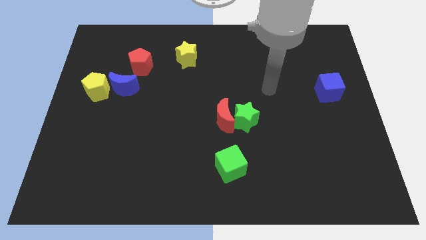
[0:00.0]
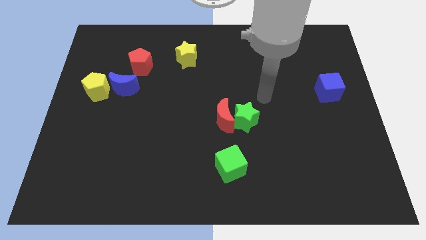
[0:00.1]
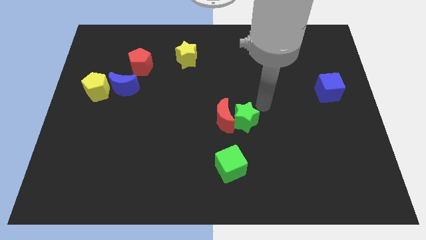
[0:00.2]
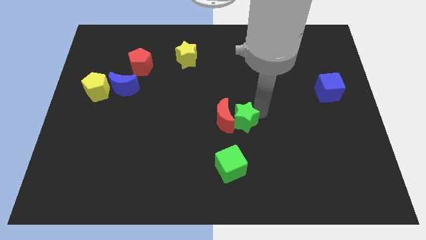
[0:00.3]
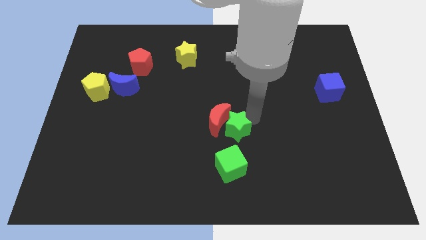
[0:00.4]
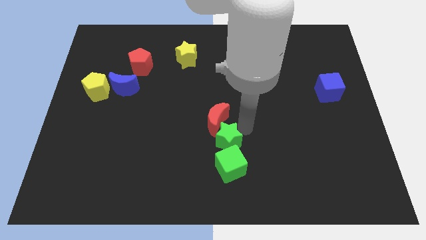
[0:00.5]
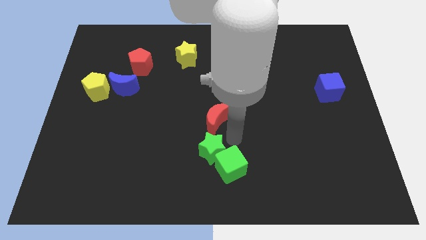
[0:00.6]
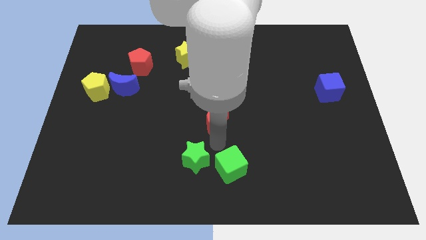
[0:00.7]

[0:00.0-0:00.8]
separate the red moon from the green star

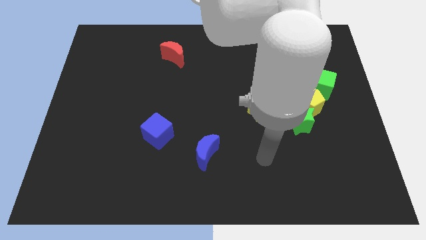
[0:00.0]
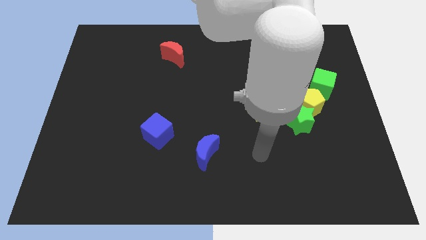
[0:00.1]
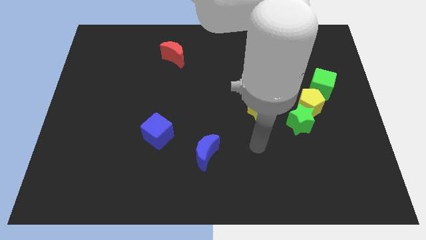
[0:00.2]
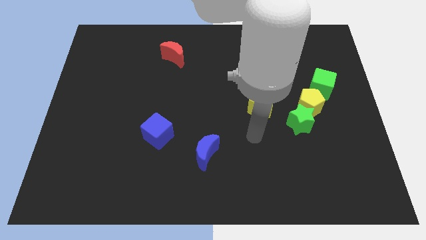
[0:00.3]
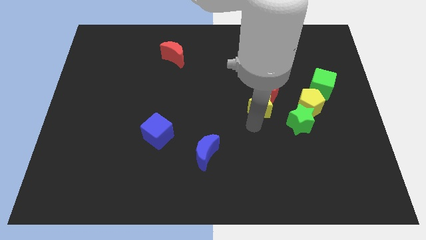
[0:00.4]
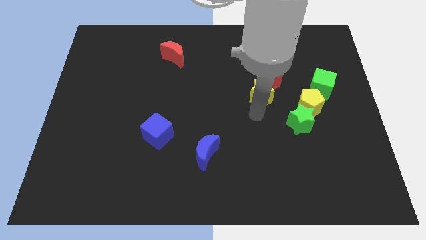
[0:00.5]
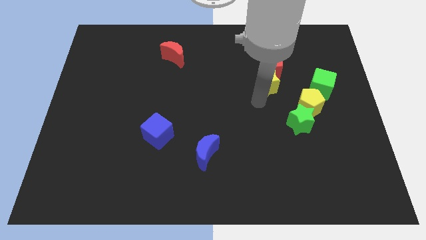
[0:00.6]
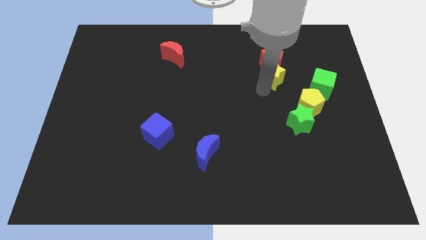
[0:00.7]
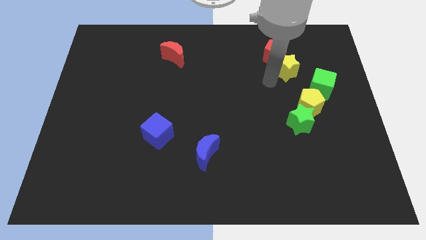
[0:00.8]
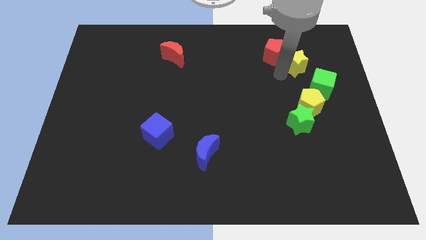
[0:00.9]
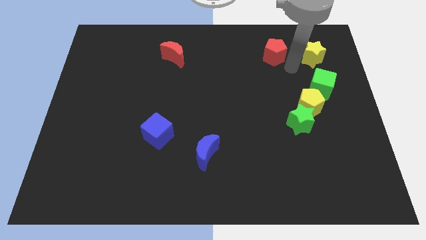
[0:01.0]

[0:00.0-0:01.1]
move the red pentagon away from the yellow star

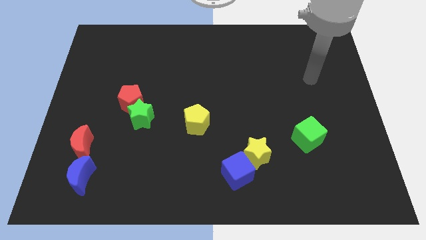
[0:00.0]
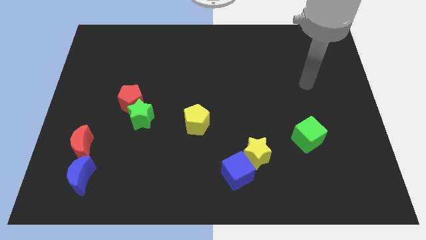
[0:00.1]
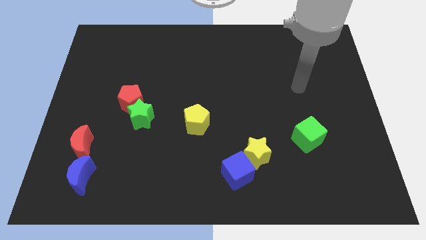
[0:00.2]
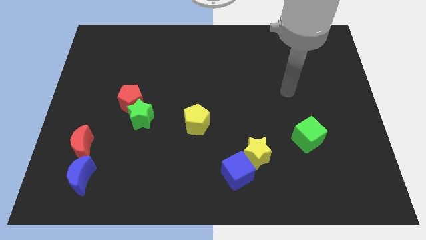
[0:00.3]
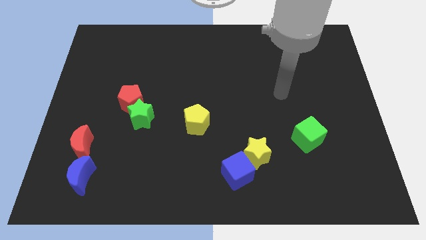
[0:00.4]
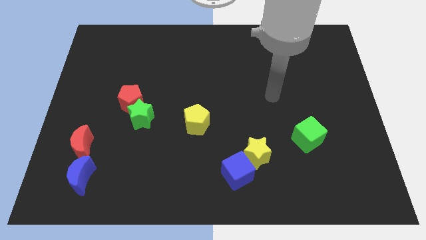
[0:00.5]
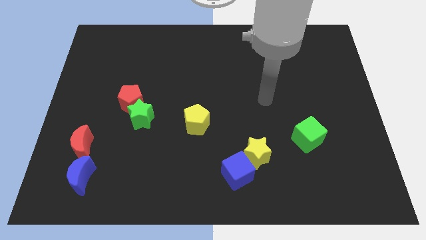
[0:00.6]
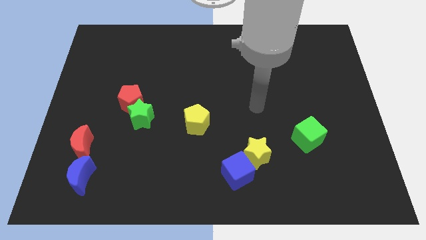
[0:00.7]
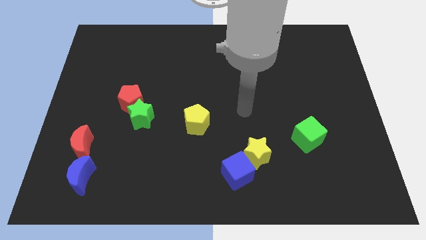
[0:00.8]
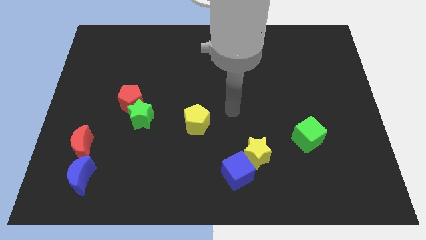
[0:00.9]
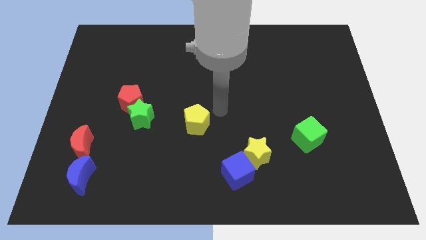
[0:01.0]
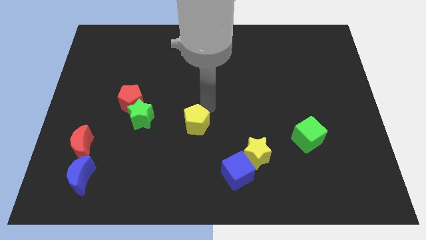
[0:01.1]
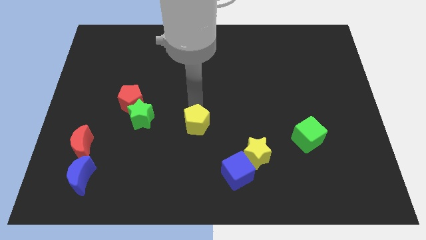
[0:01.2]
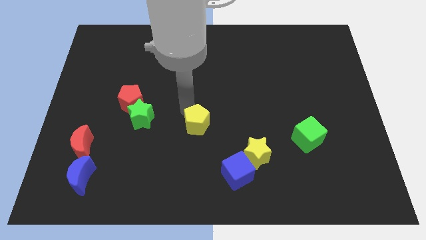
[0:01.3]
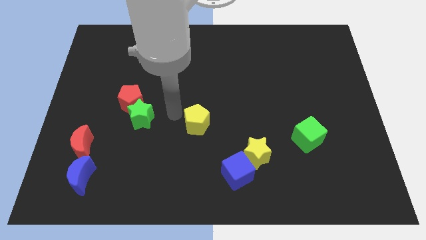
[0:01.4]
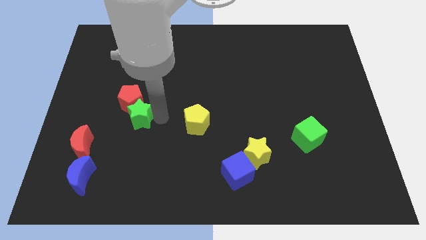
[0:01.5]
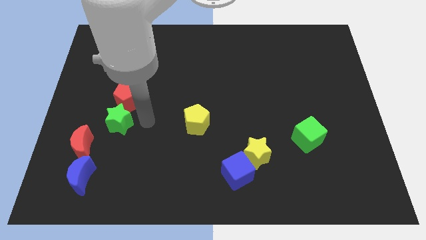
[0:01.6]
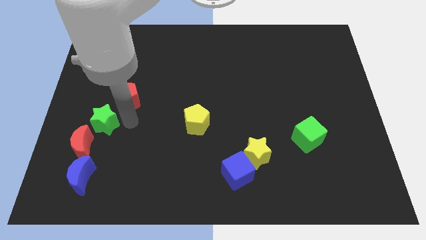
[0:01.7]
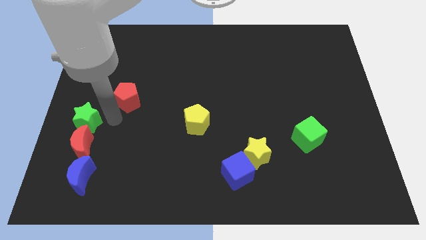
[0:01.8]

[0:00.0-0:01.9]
pull the red pentagon apart from the green star

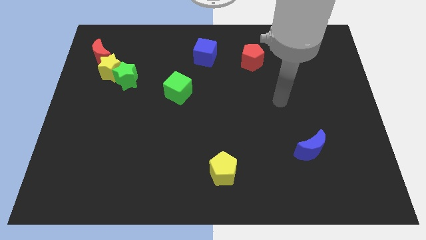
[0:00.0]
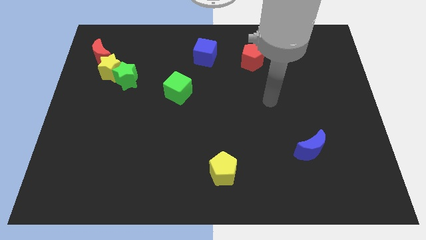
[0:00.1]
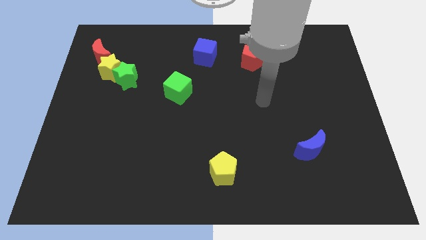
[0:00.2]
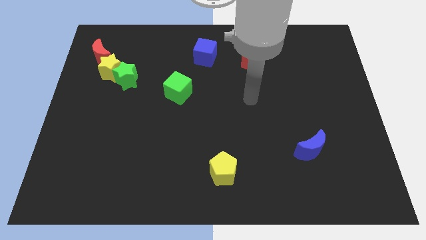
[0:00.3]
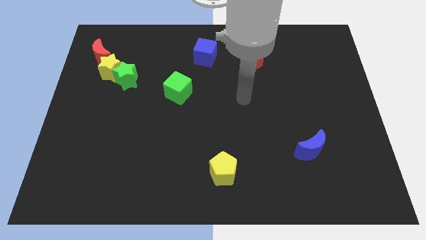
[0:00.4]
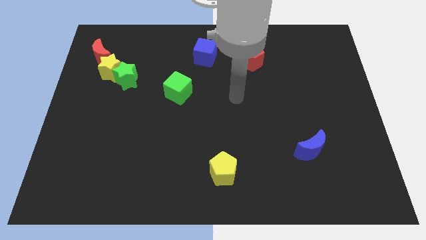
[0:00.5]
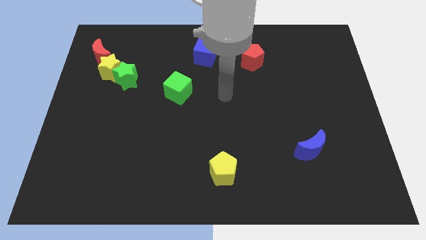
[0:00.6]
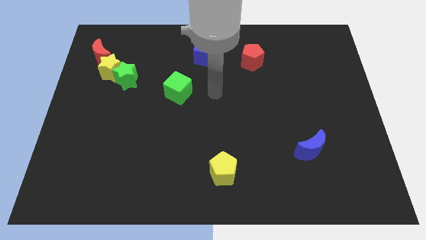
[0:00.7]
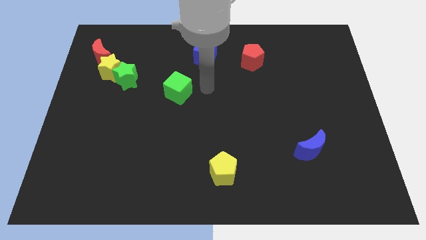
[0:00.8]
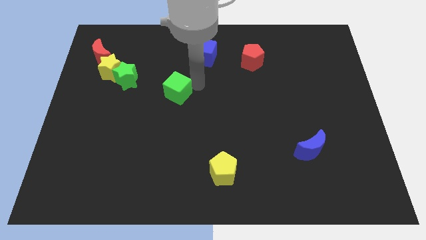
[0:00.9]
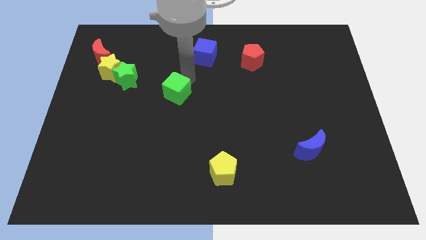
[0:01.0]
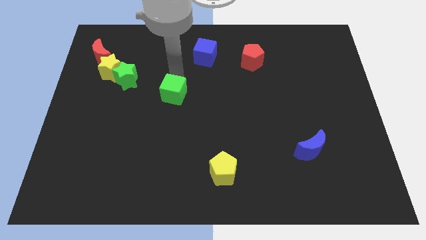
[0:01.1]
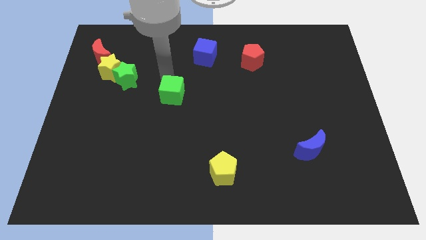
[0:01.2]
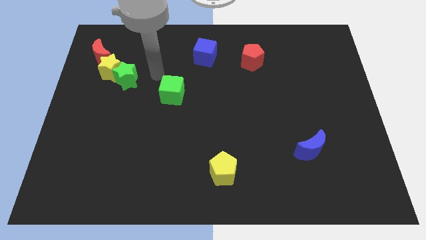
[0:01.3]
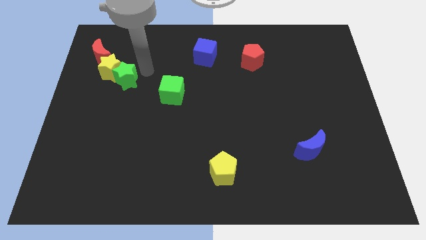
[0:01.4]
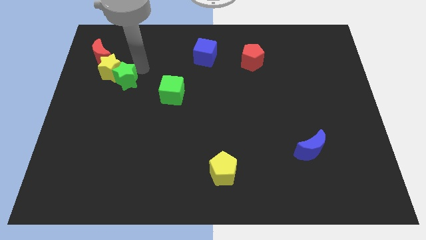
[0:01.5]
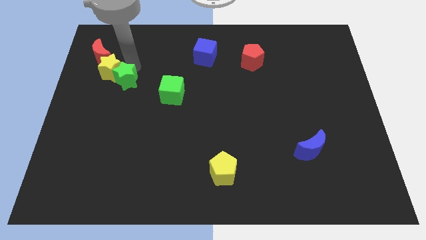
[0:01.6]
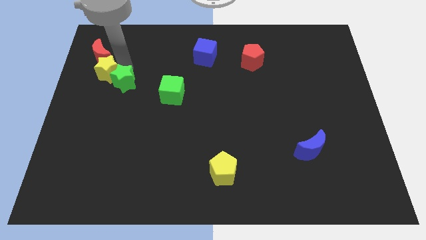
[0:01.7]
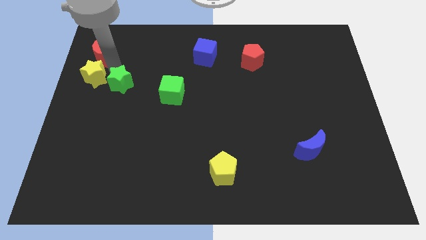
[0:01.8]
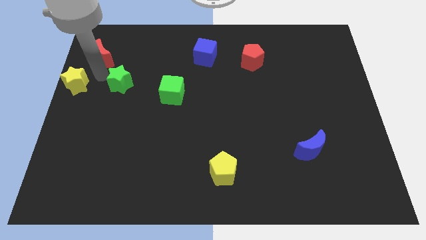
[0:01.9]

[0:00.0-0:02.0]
separate the green star from the yellow star

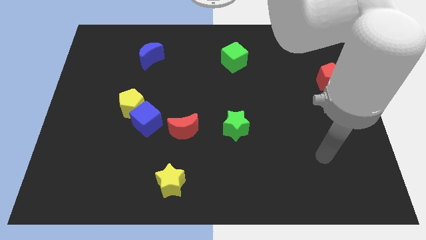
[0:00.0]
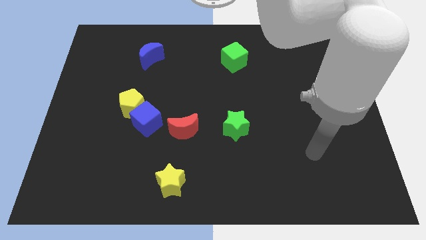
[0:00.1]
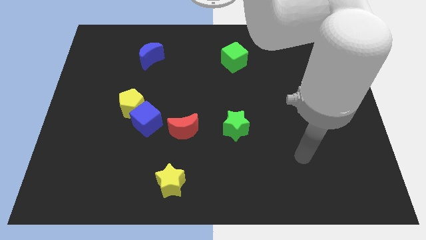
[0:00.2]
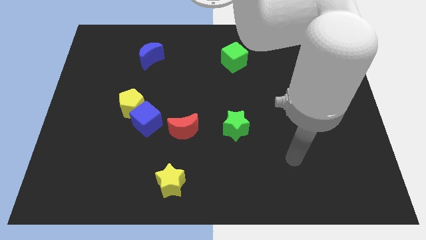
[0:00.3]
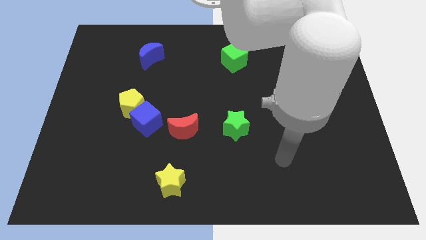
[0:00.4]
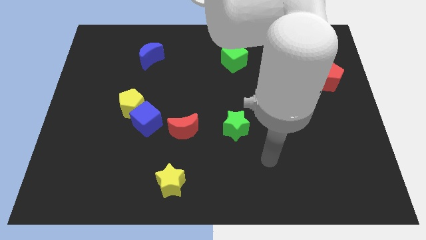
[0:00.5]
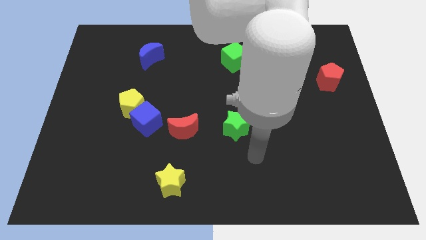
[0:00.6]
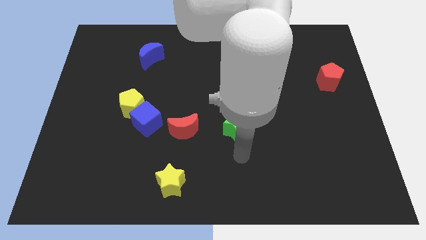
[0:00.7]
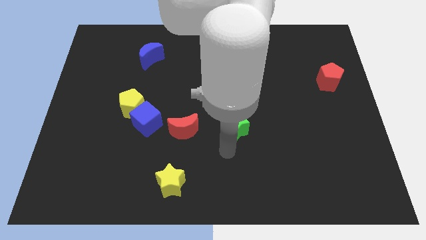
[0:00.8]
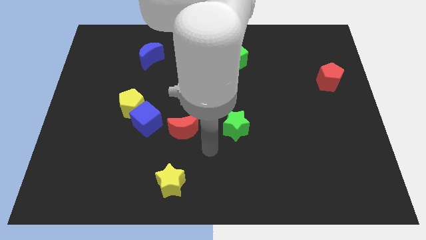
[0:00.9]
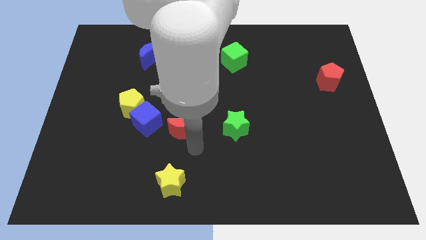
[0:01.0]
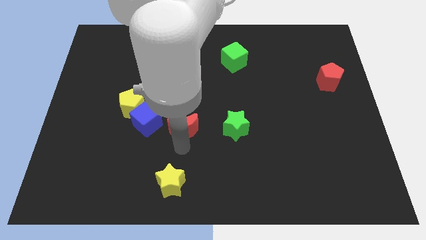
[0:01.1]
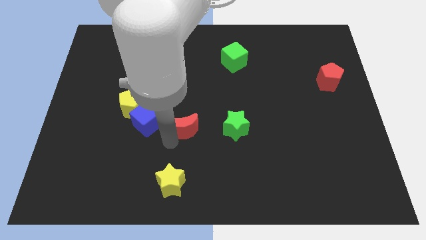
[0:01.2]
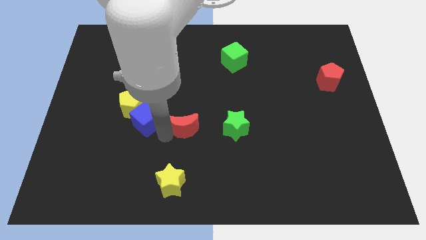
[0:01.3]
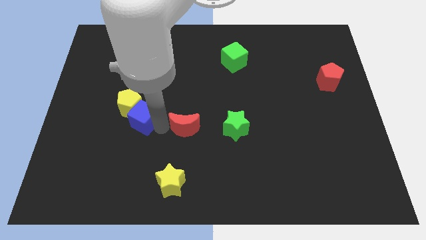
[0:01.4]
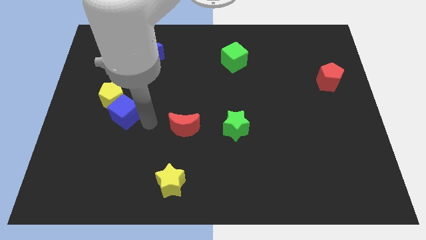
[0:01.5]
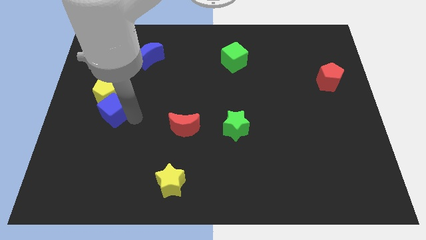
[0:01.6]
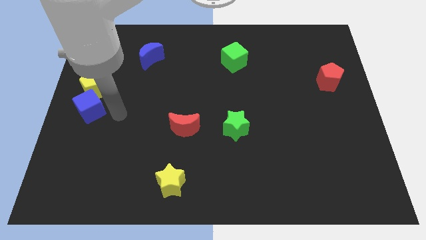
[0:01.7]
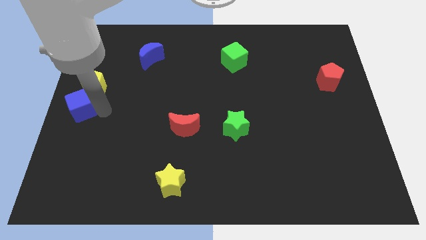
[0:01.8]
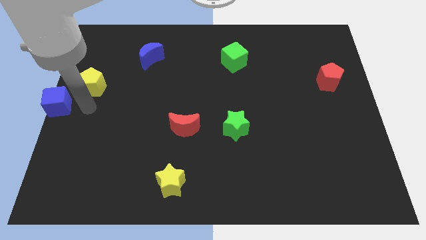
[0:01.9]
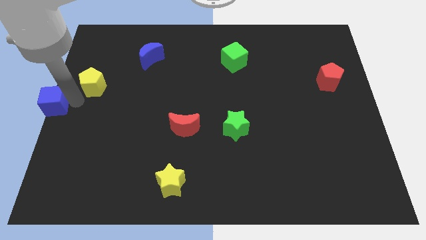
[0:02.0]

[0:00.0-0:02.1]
pull the yellow pentagon apart from the blue cube

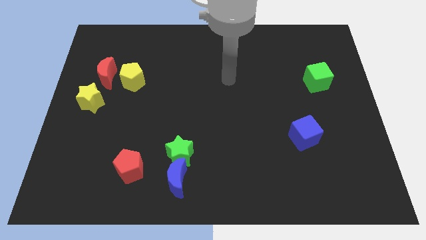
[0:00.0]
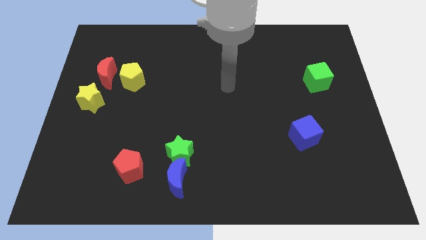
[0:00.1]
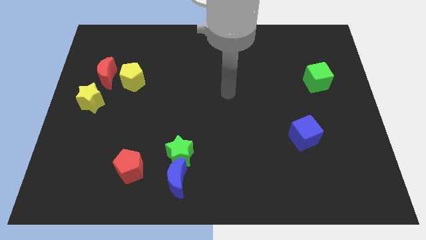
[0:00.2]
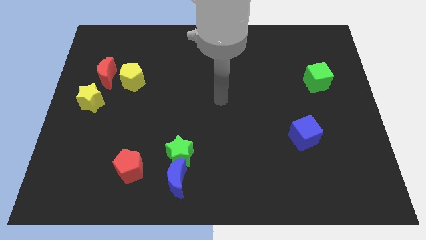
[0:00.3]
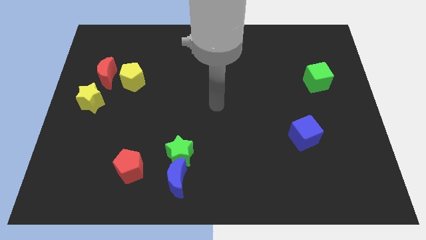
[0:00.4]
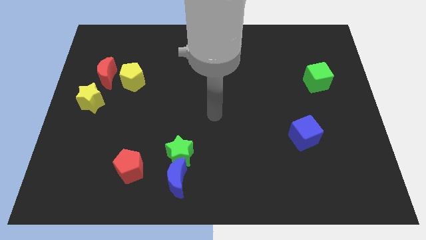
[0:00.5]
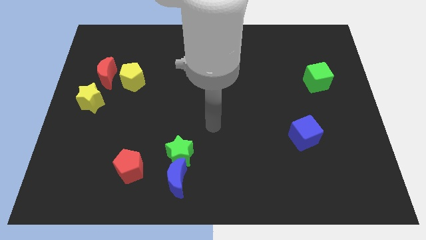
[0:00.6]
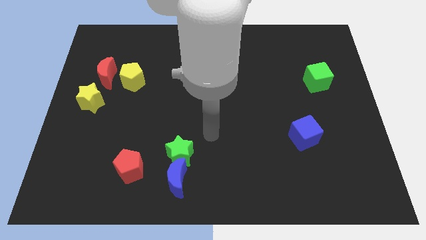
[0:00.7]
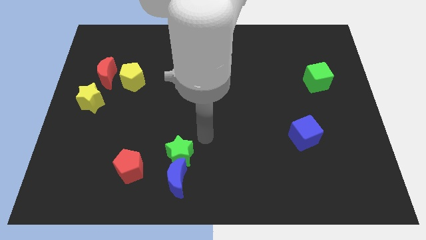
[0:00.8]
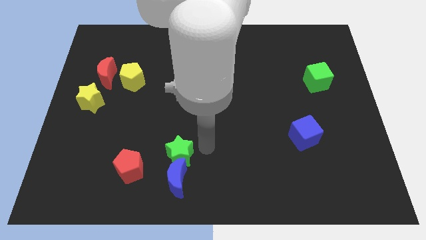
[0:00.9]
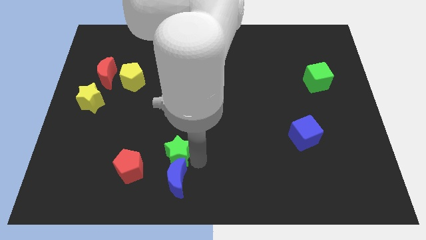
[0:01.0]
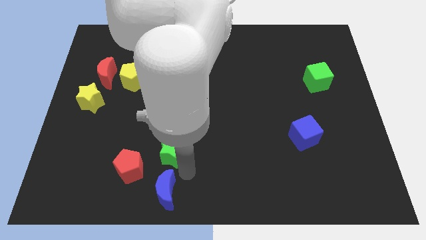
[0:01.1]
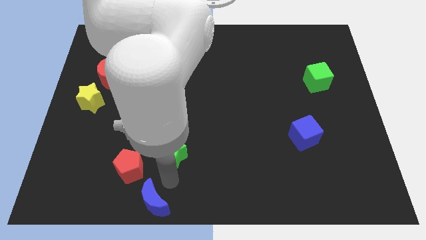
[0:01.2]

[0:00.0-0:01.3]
move the green star away from the blue moon

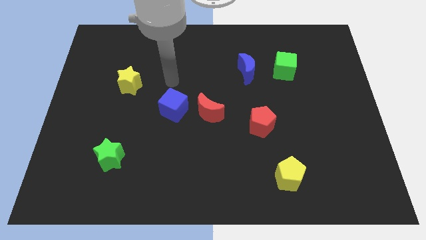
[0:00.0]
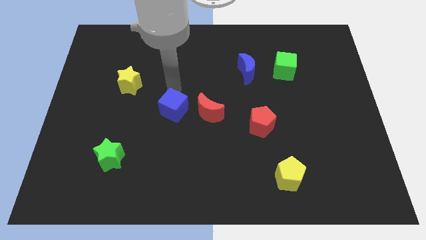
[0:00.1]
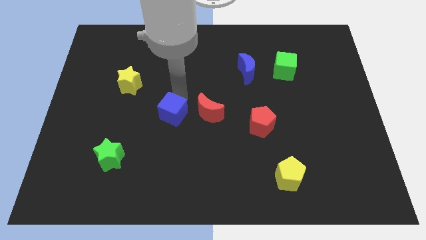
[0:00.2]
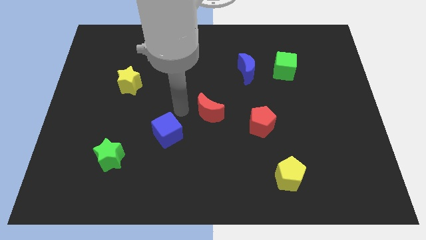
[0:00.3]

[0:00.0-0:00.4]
separate the red moon from the blue cube
